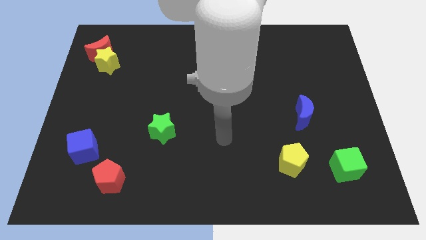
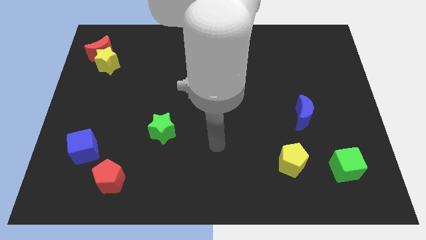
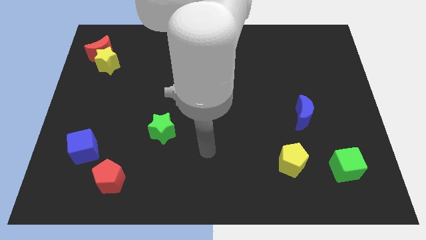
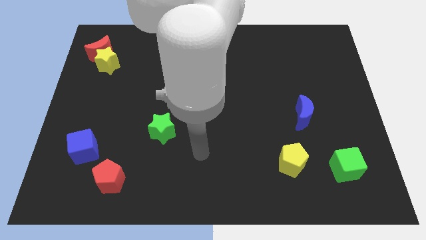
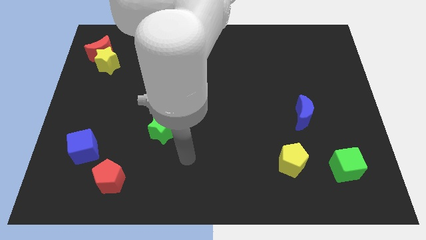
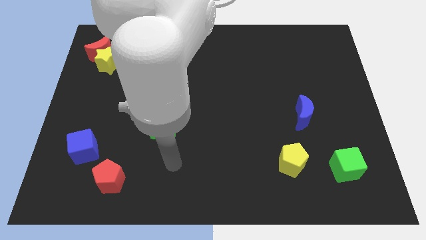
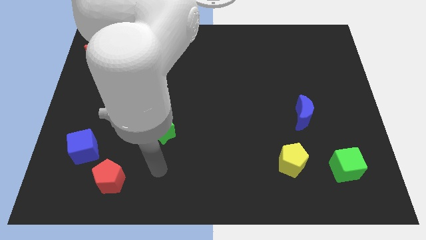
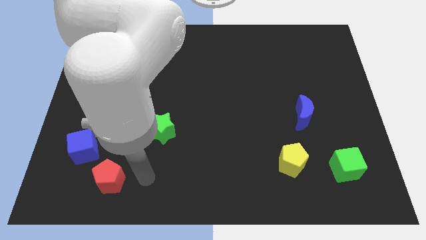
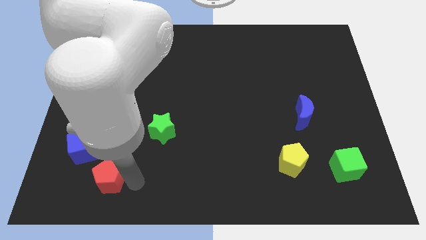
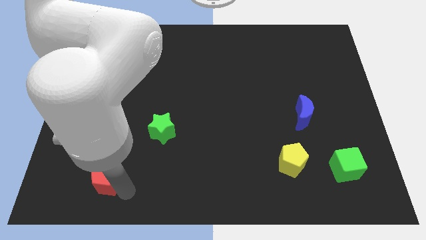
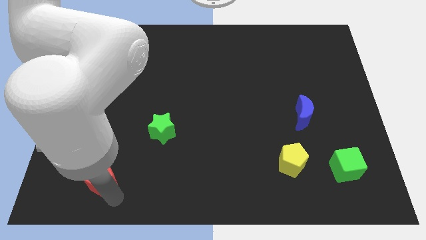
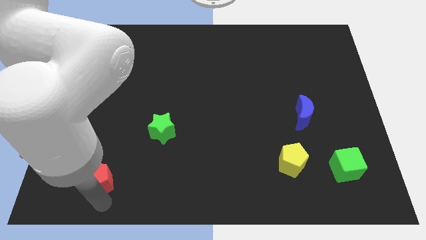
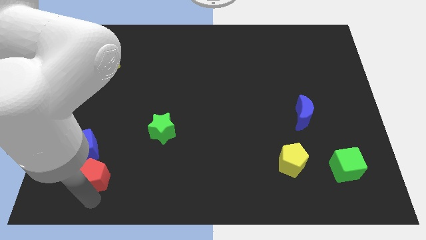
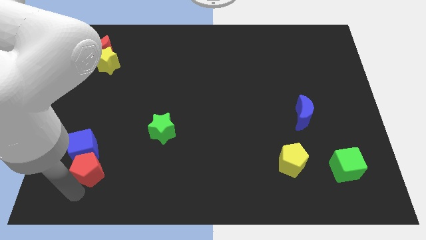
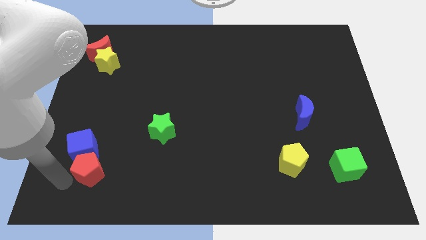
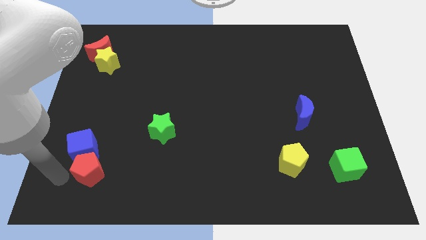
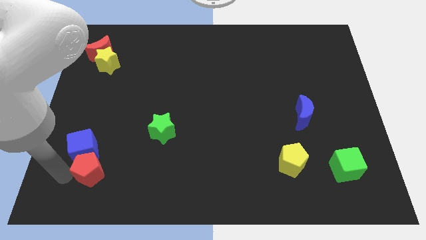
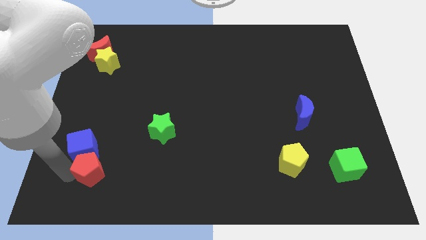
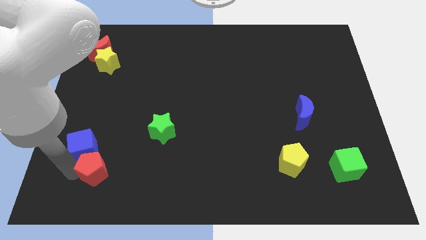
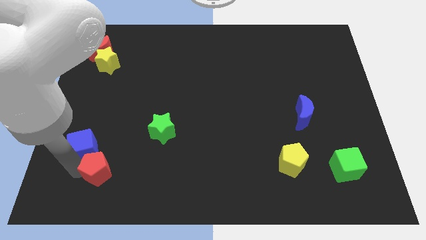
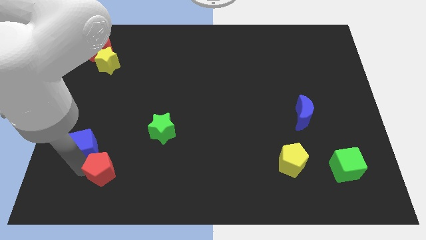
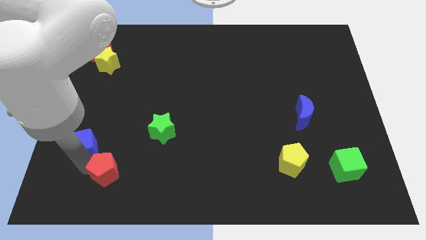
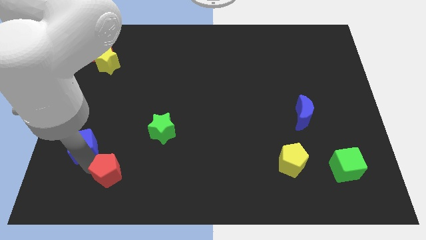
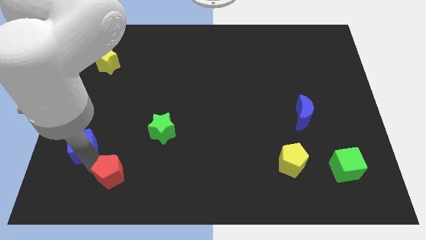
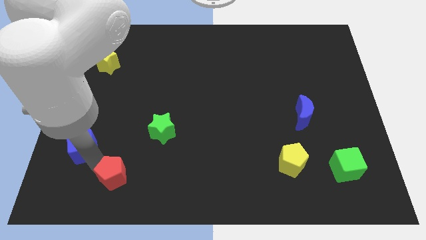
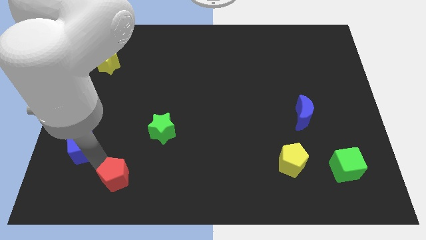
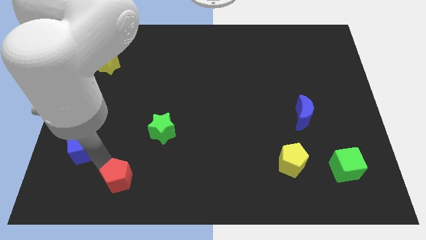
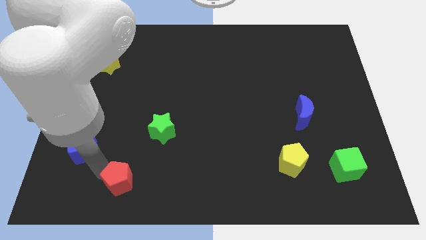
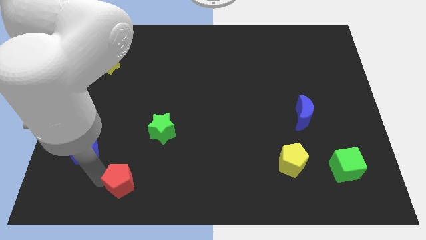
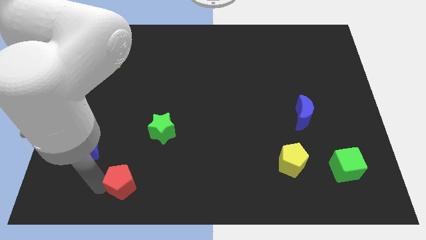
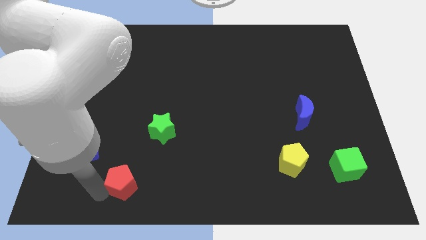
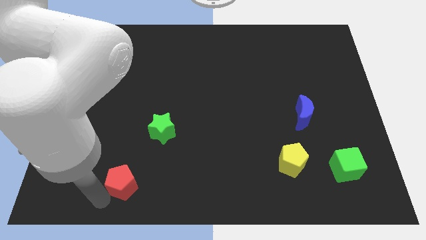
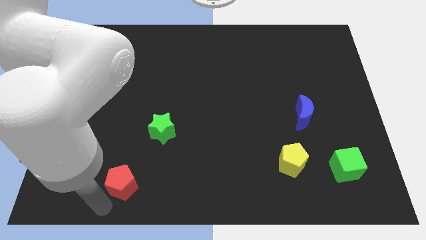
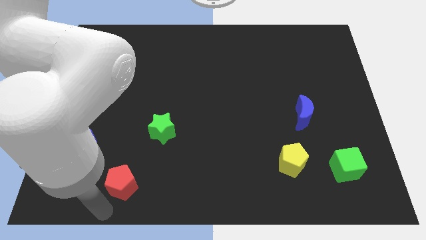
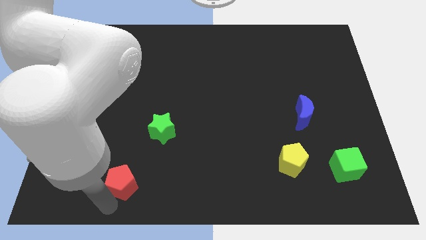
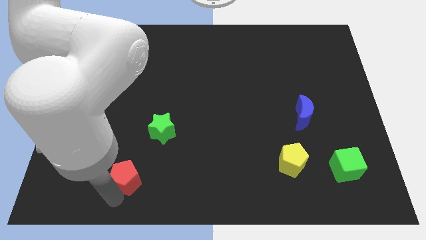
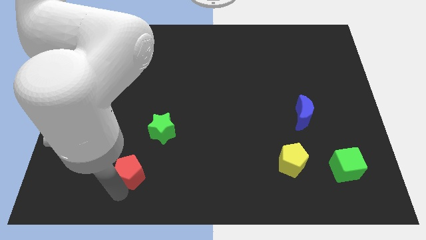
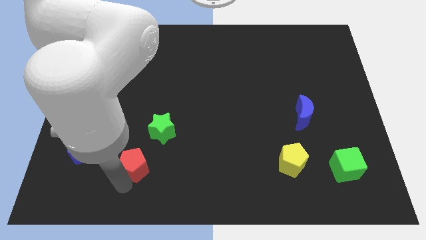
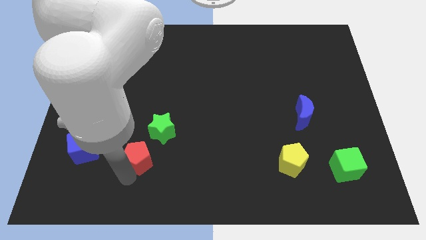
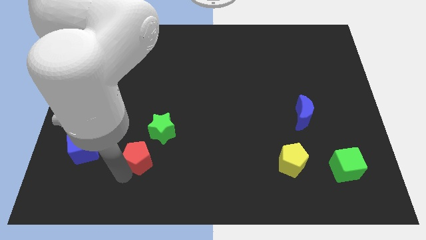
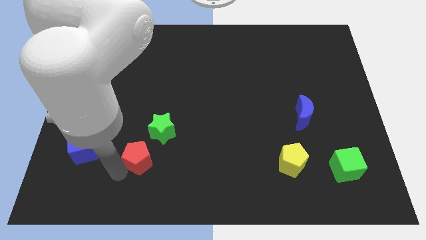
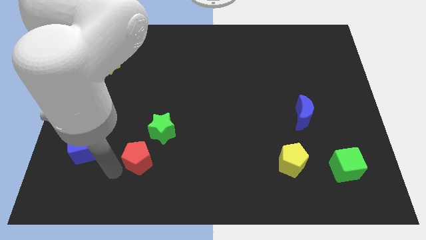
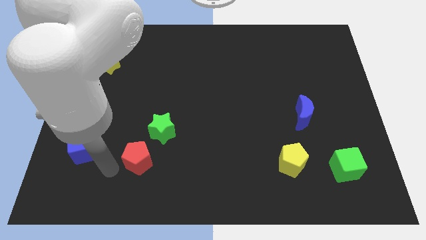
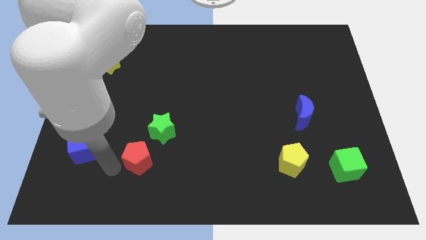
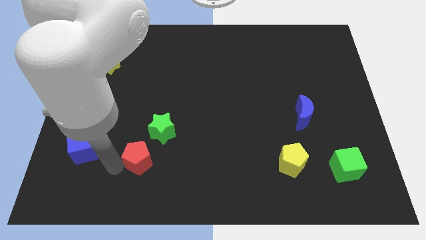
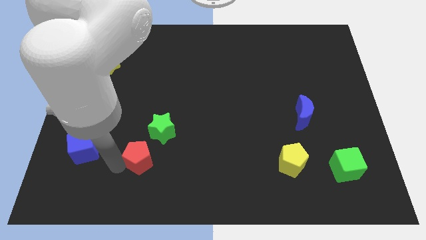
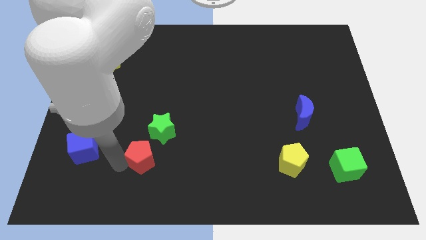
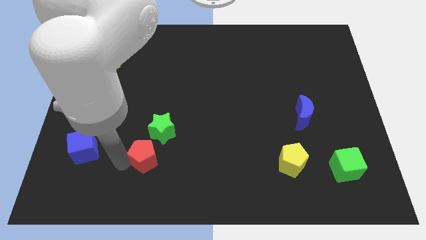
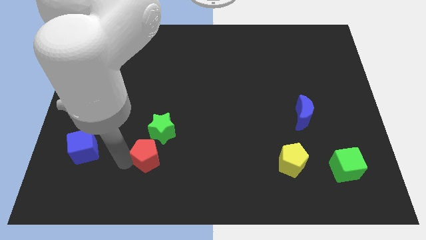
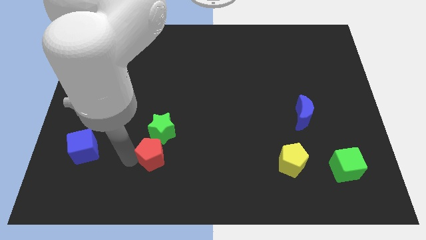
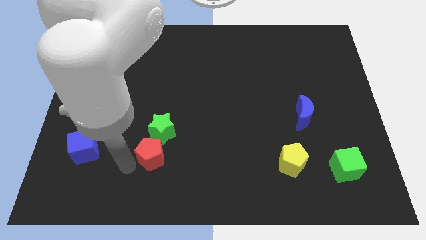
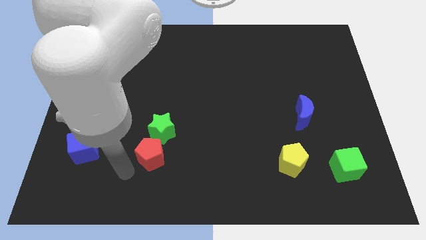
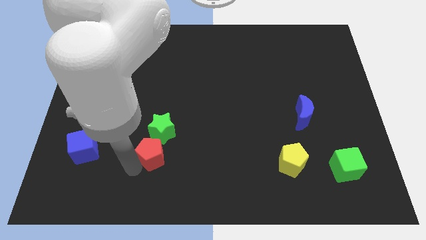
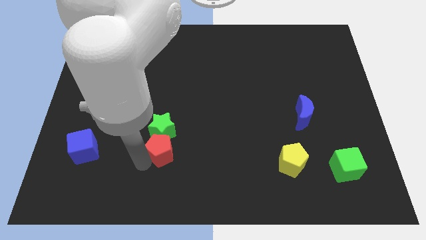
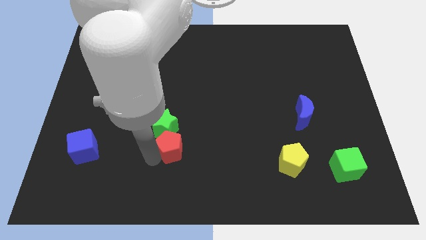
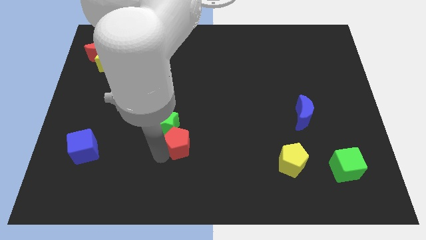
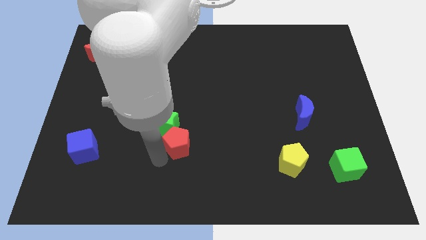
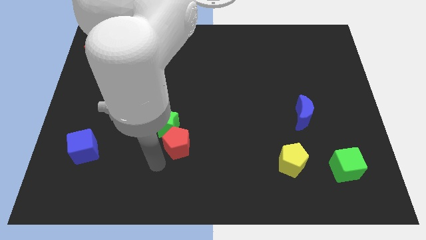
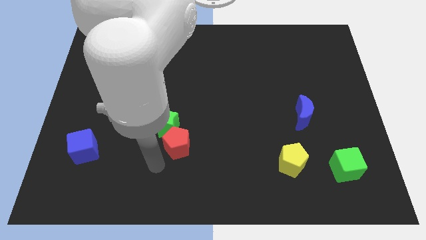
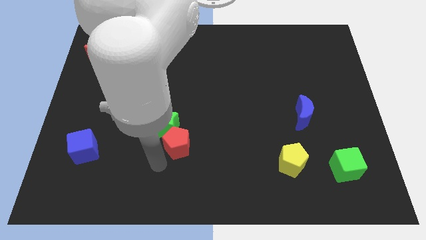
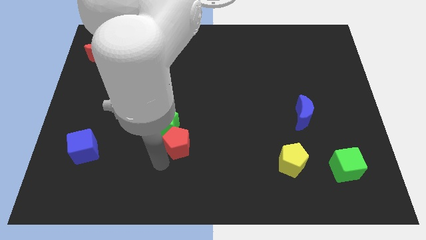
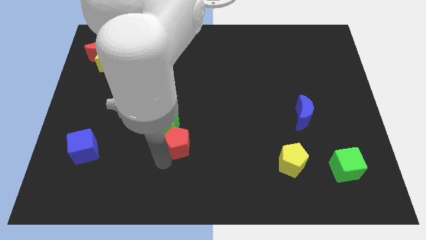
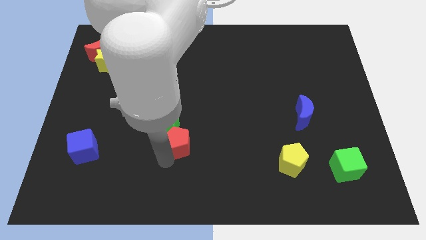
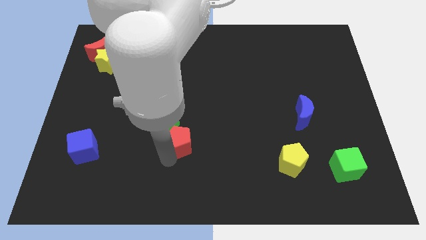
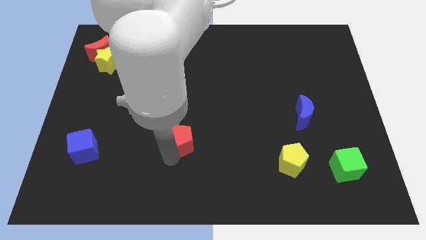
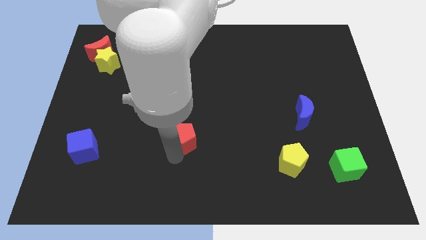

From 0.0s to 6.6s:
slide the red pentagon to the right of the green star

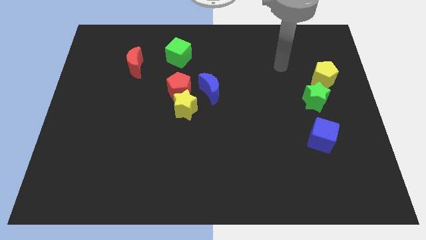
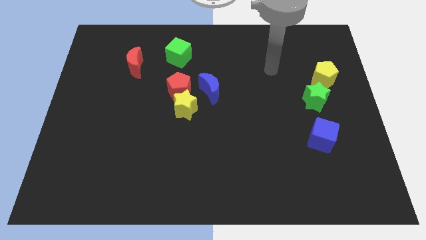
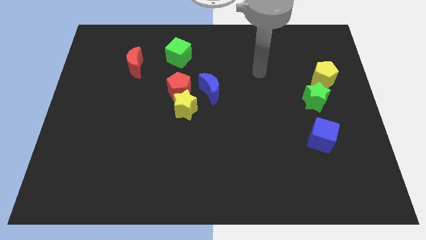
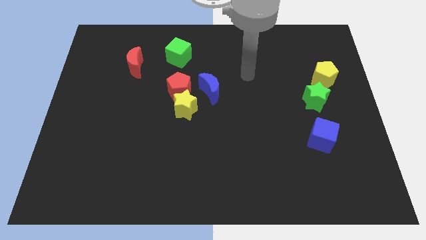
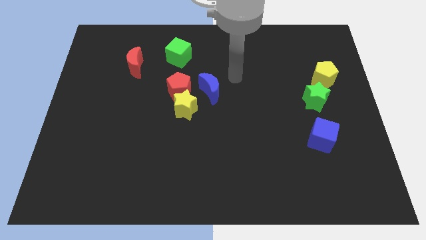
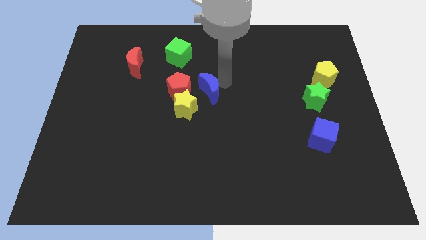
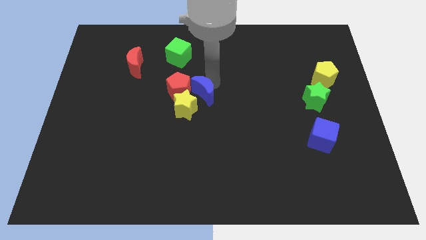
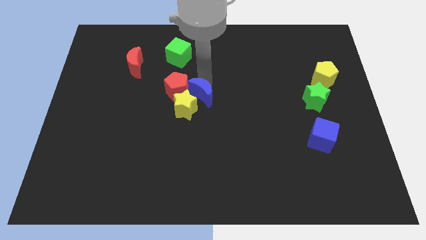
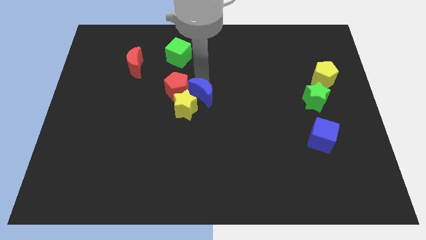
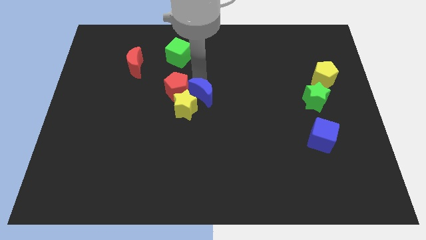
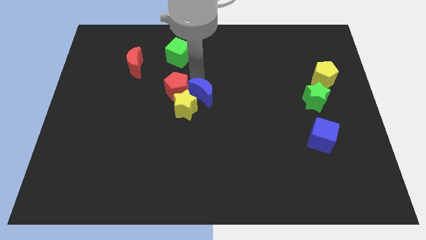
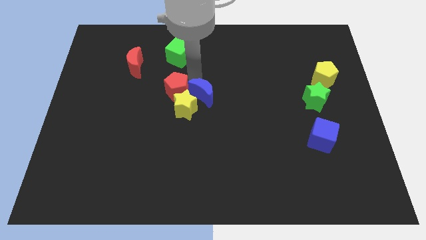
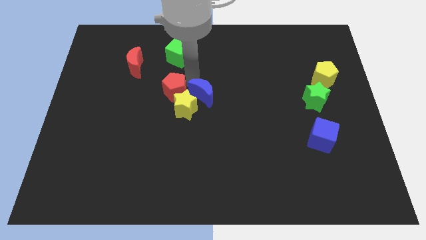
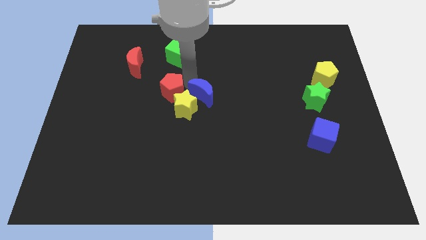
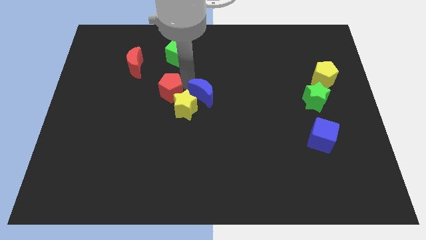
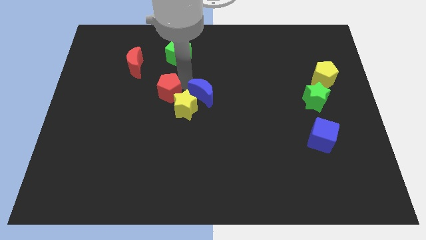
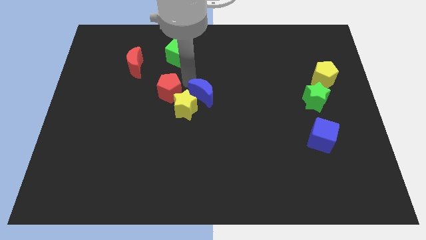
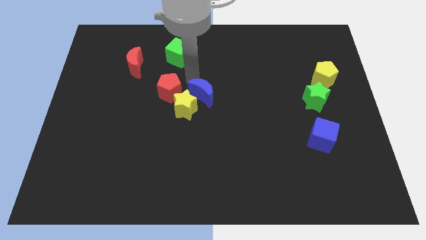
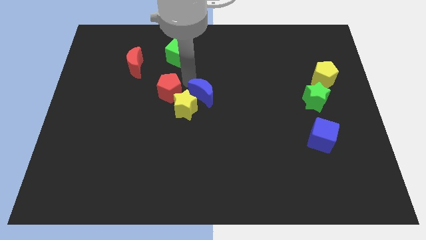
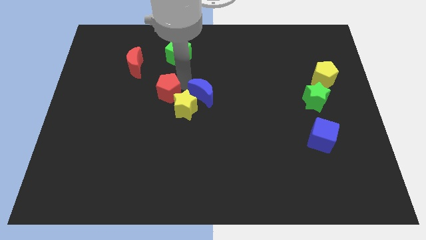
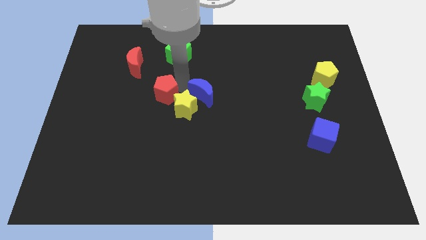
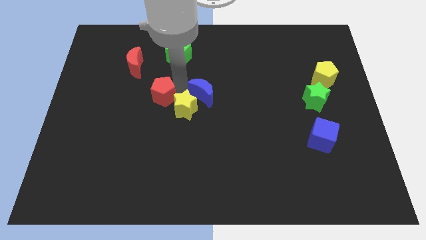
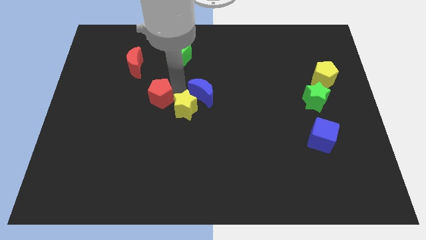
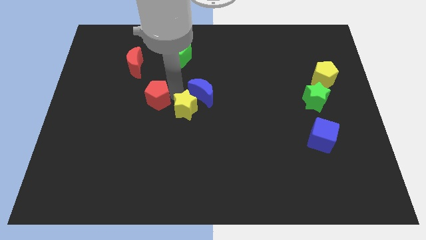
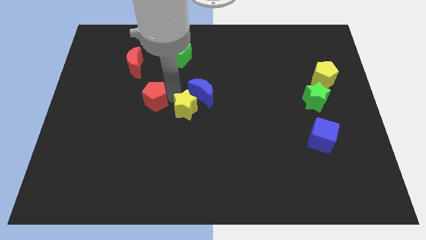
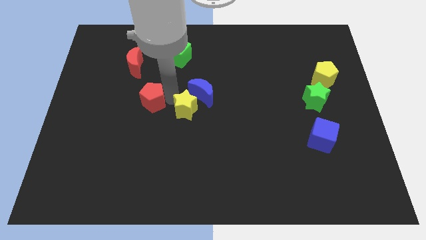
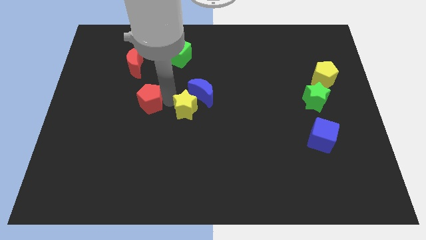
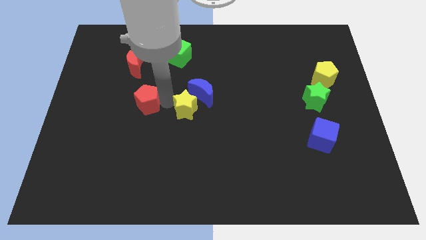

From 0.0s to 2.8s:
push the red pentagon to the bottom side of the red moon
